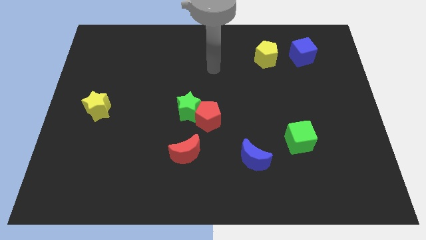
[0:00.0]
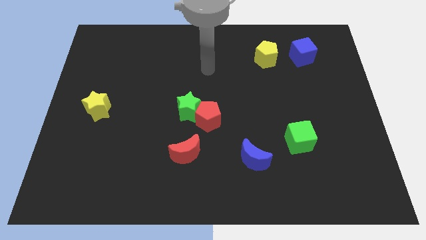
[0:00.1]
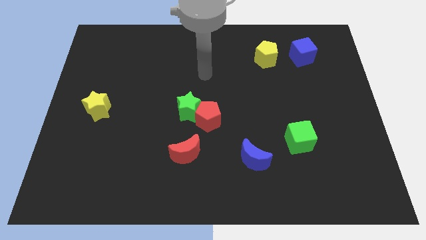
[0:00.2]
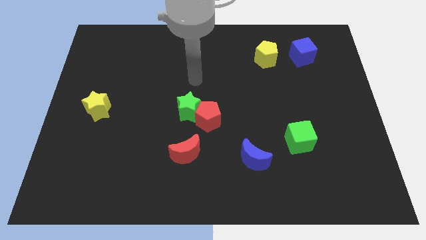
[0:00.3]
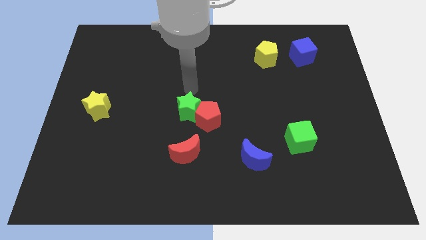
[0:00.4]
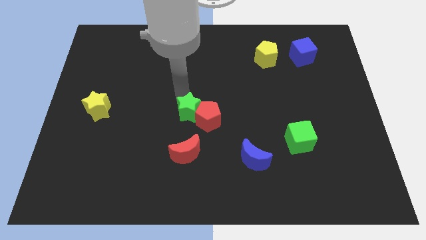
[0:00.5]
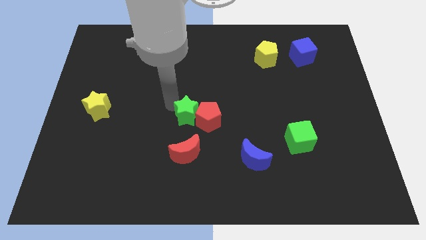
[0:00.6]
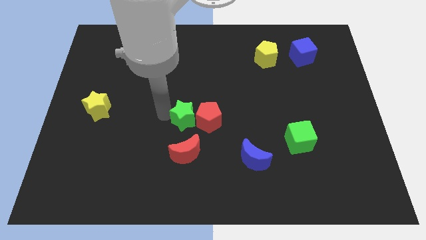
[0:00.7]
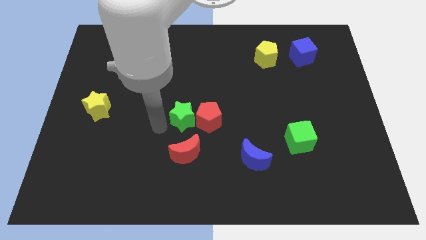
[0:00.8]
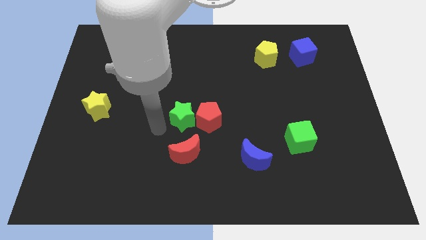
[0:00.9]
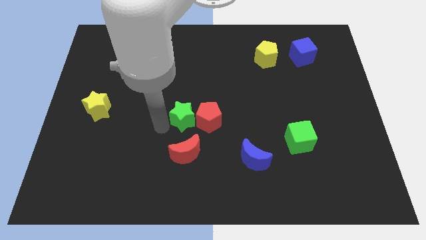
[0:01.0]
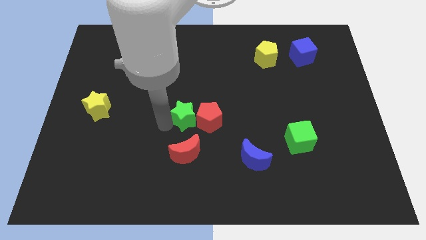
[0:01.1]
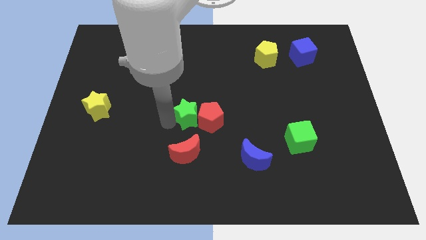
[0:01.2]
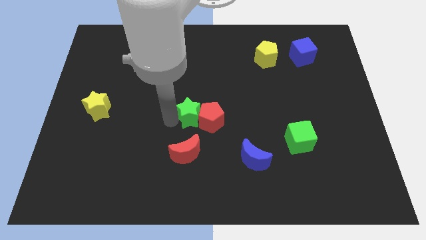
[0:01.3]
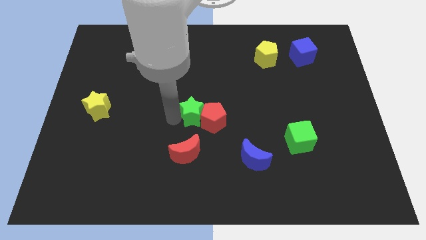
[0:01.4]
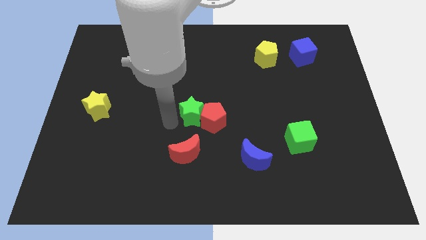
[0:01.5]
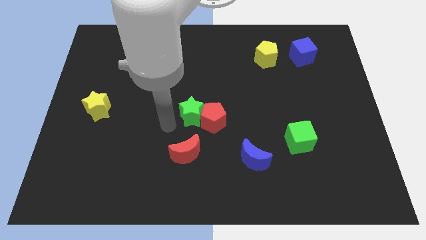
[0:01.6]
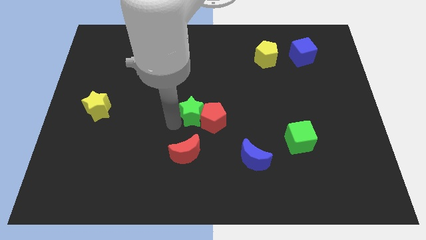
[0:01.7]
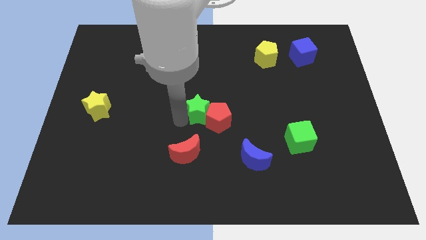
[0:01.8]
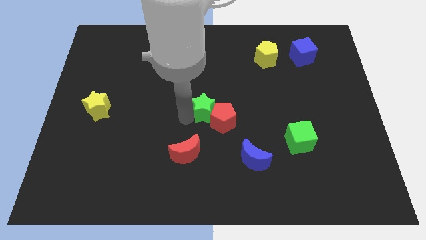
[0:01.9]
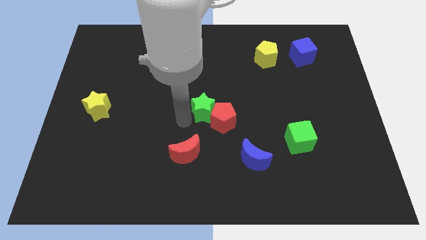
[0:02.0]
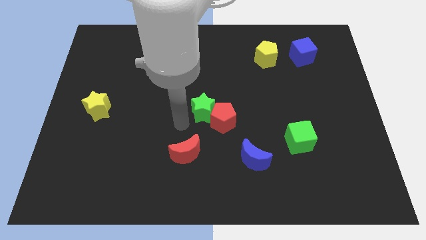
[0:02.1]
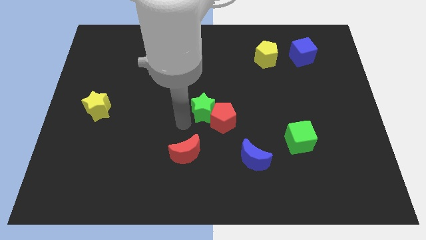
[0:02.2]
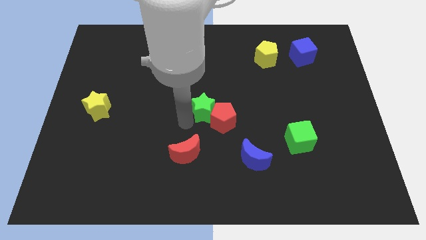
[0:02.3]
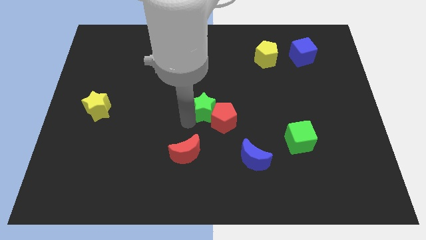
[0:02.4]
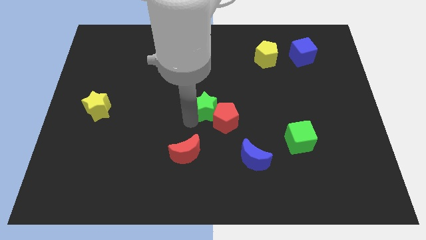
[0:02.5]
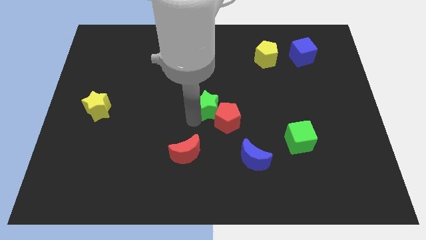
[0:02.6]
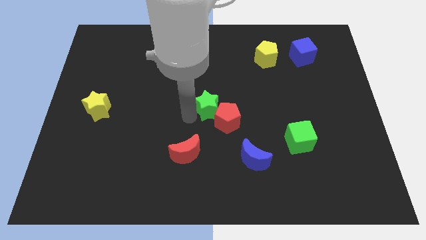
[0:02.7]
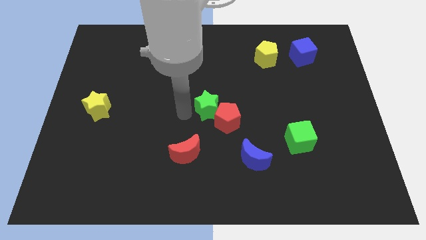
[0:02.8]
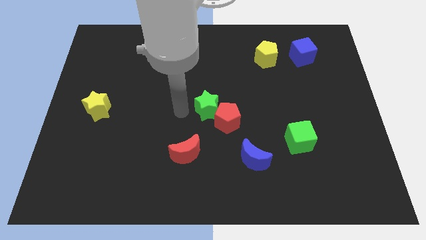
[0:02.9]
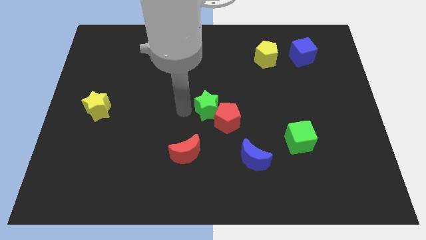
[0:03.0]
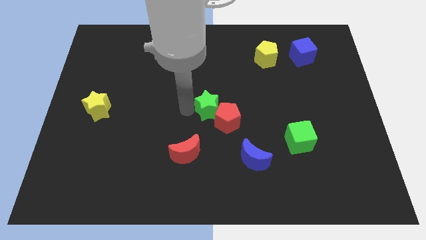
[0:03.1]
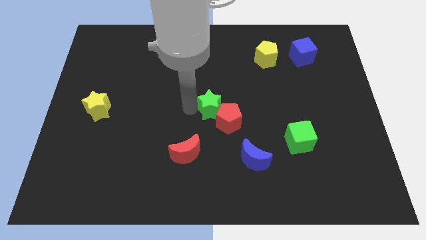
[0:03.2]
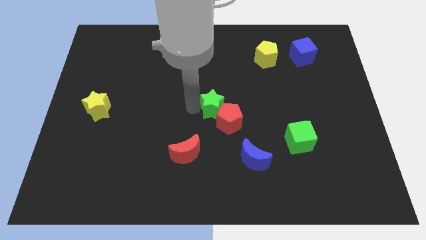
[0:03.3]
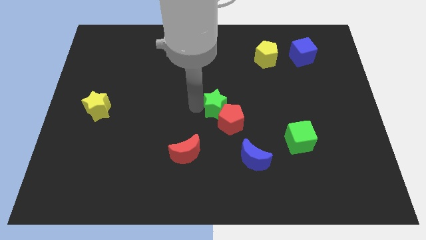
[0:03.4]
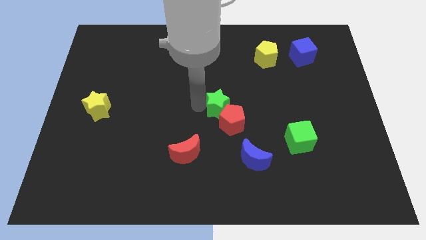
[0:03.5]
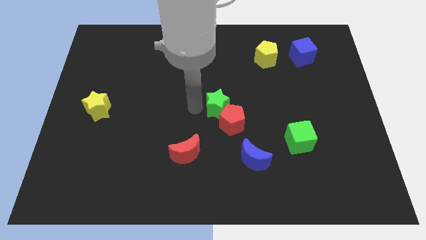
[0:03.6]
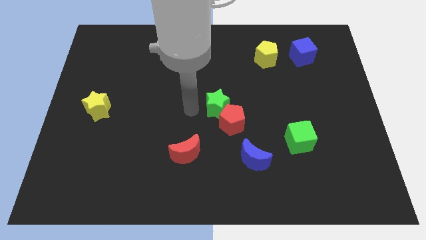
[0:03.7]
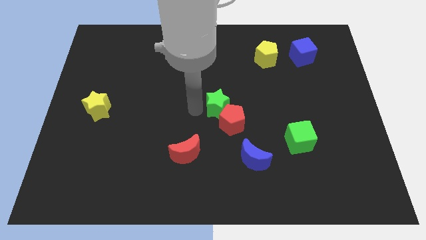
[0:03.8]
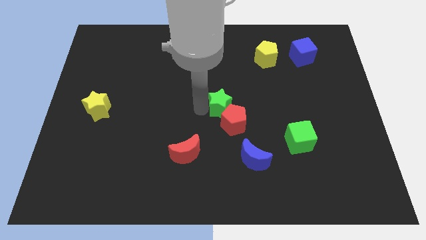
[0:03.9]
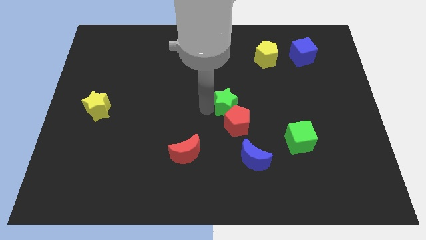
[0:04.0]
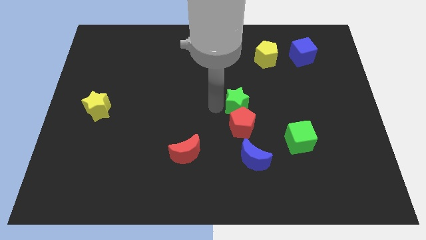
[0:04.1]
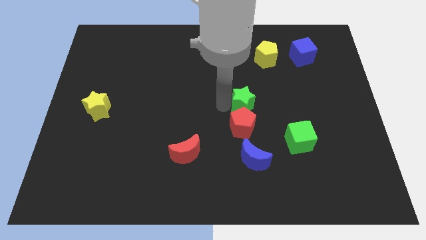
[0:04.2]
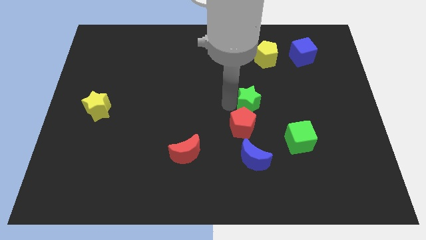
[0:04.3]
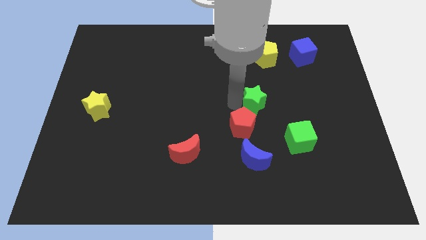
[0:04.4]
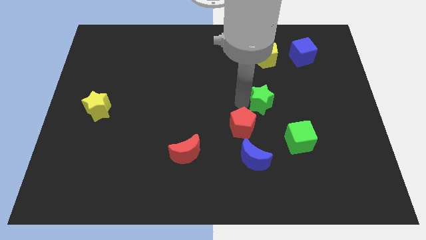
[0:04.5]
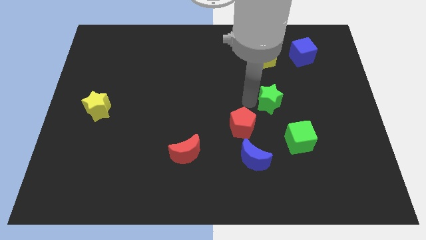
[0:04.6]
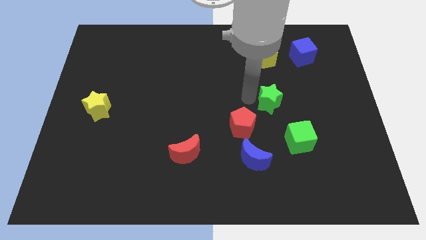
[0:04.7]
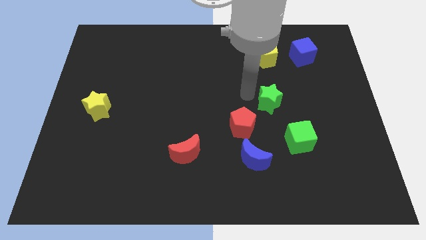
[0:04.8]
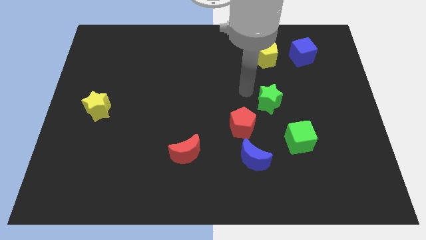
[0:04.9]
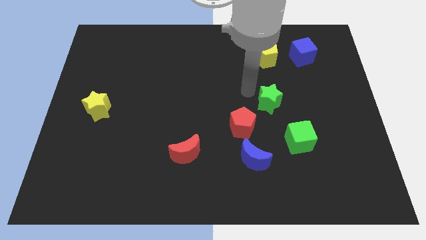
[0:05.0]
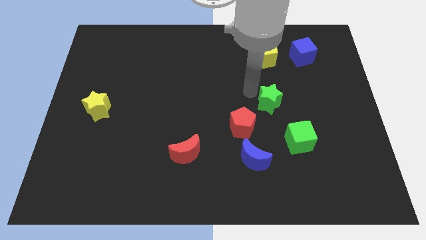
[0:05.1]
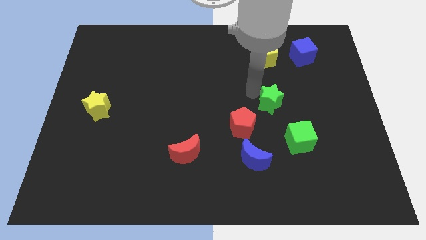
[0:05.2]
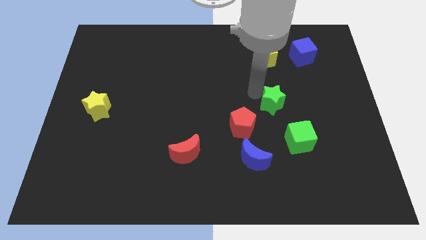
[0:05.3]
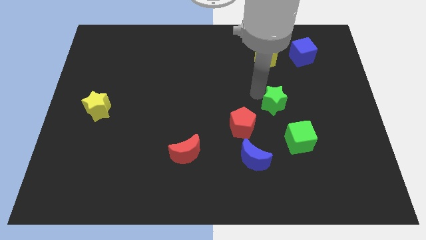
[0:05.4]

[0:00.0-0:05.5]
move the green star right

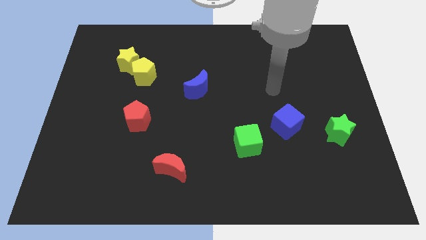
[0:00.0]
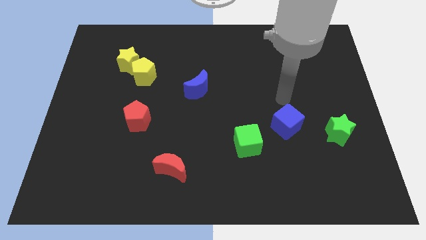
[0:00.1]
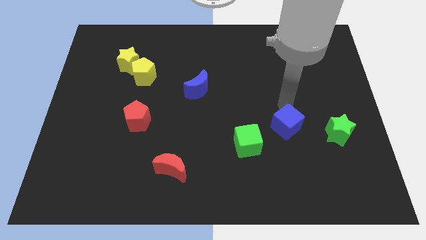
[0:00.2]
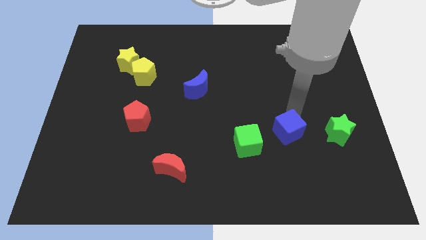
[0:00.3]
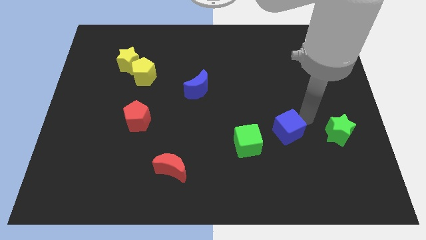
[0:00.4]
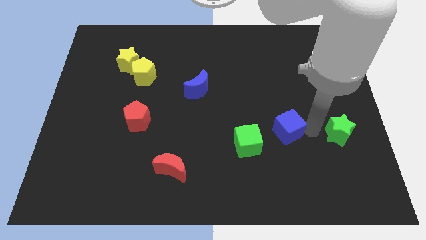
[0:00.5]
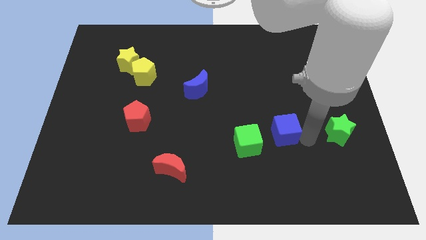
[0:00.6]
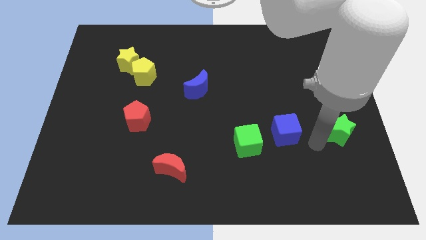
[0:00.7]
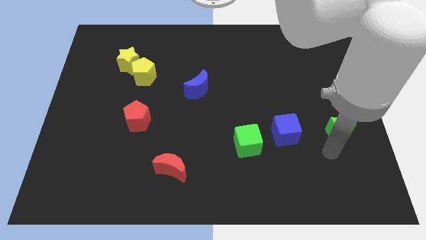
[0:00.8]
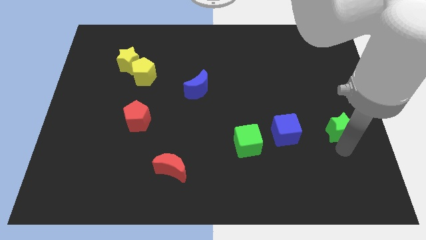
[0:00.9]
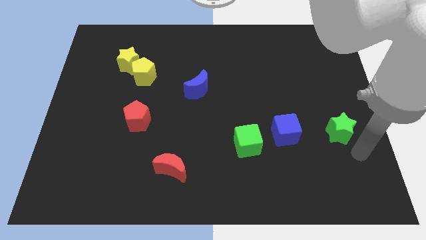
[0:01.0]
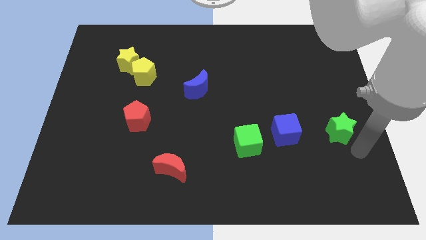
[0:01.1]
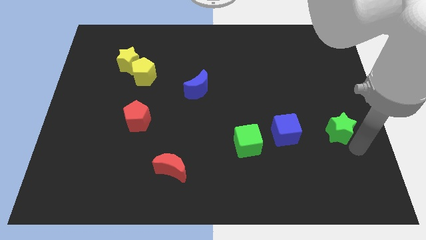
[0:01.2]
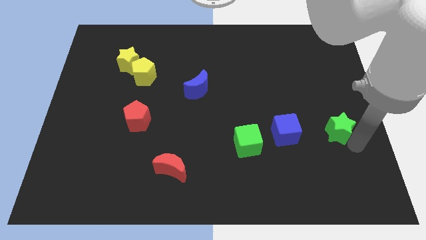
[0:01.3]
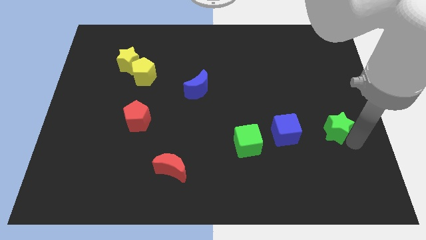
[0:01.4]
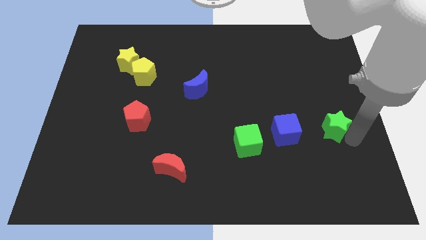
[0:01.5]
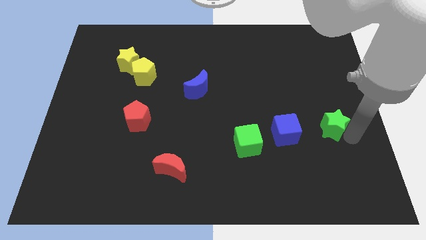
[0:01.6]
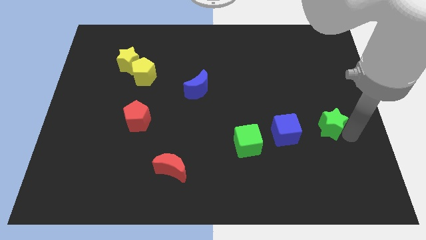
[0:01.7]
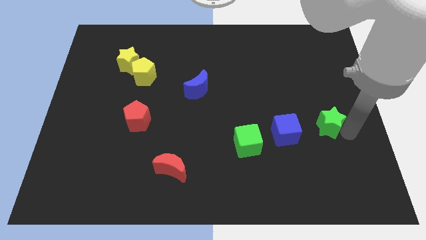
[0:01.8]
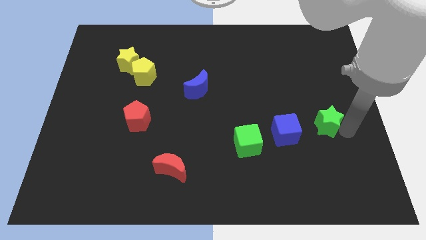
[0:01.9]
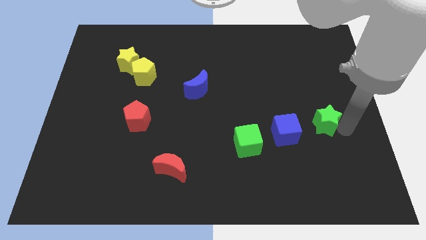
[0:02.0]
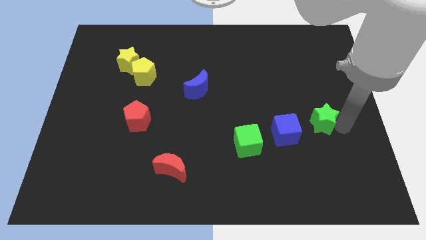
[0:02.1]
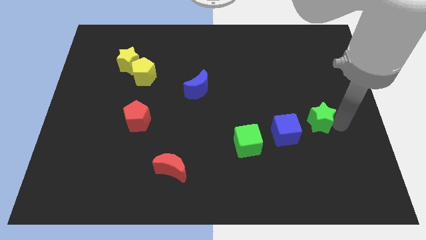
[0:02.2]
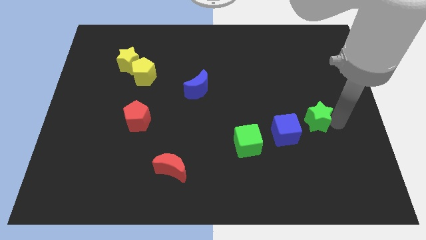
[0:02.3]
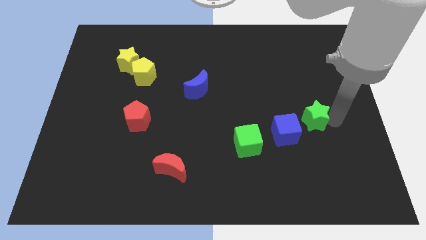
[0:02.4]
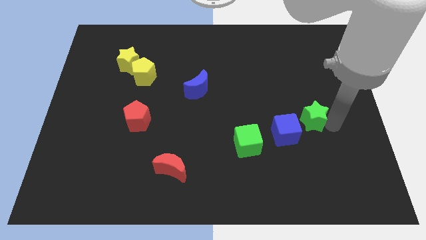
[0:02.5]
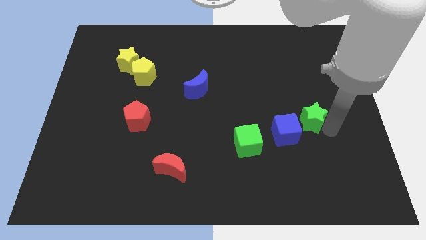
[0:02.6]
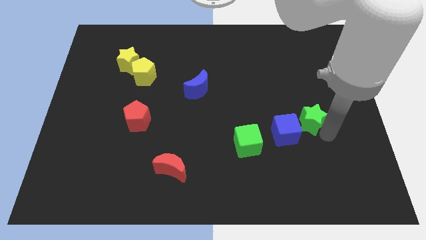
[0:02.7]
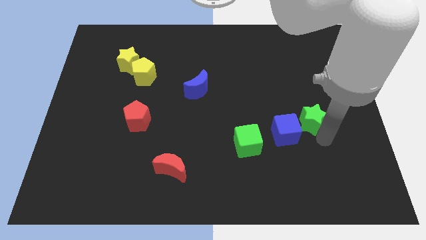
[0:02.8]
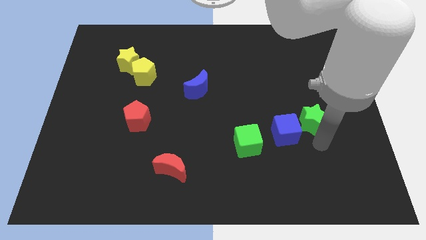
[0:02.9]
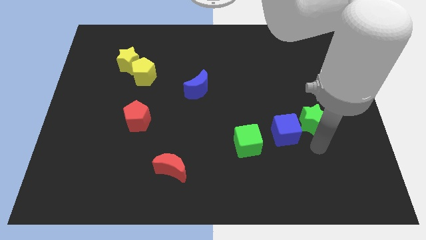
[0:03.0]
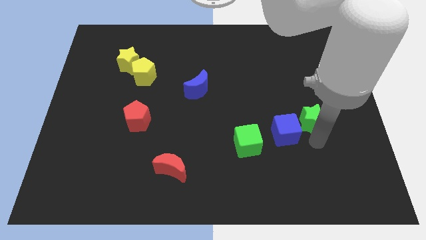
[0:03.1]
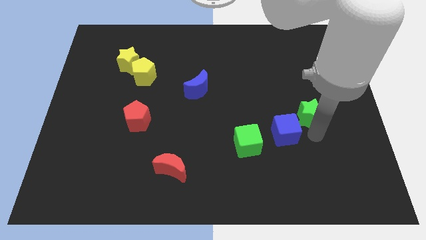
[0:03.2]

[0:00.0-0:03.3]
push the green star slightly upwards and left diagonally
